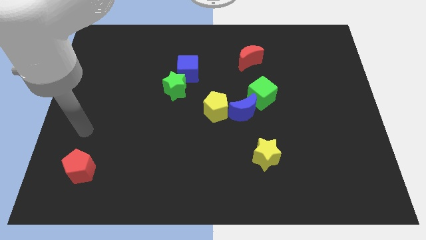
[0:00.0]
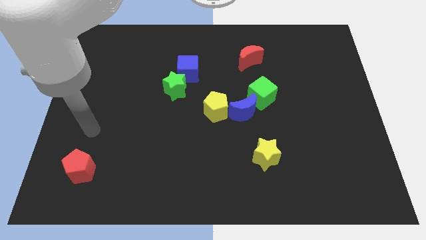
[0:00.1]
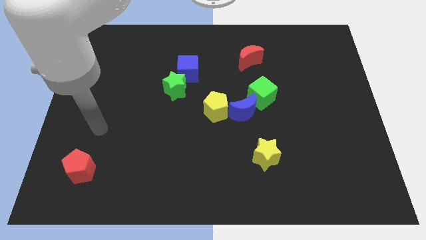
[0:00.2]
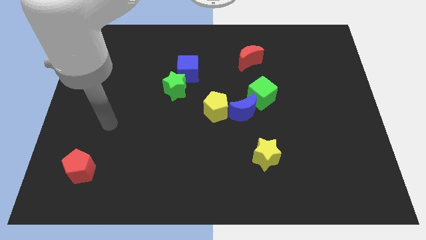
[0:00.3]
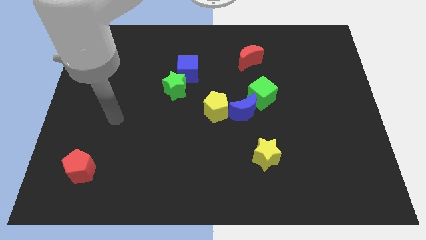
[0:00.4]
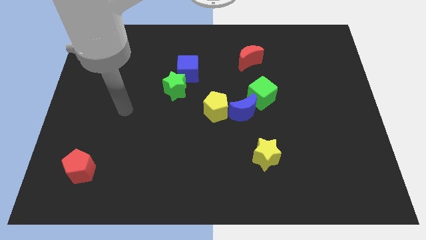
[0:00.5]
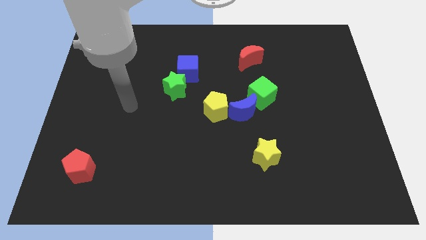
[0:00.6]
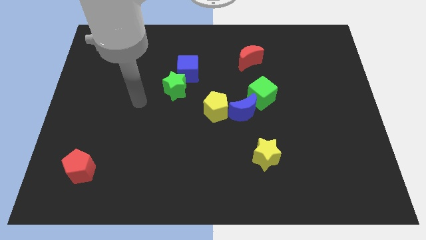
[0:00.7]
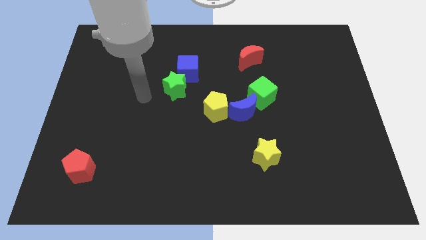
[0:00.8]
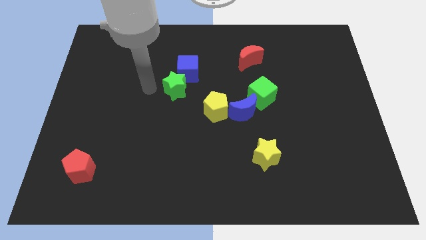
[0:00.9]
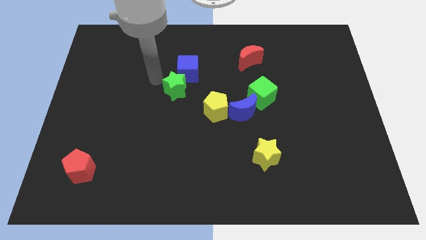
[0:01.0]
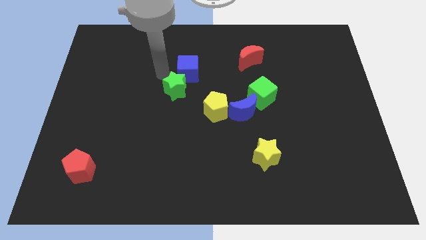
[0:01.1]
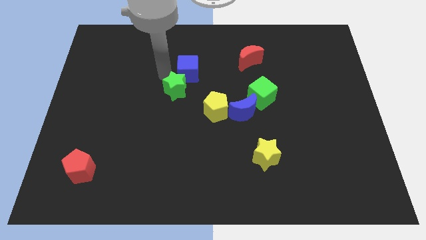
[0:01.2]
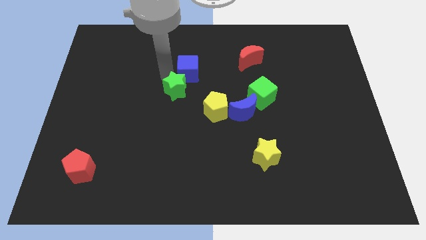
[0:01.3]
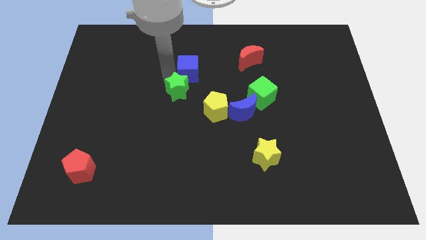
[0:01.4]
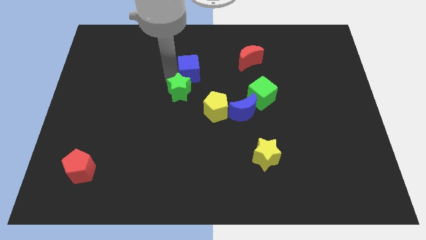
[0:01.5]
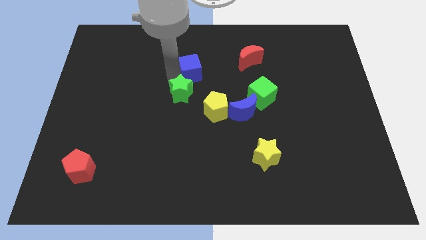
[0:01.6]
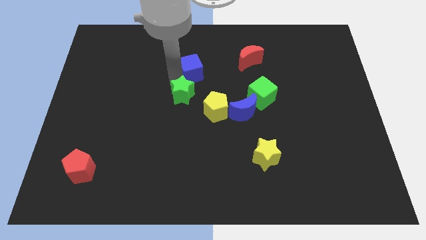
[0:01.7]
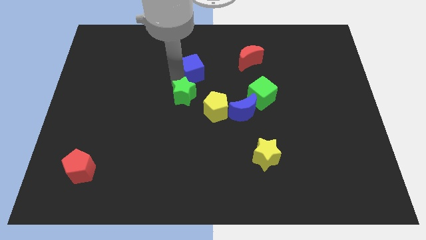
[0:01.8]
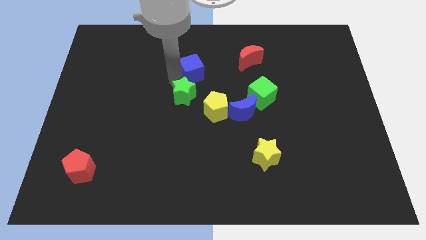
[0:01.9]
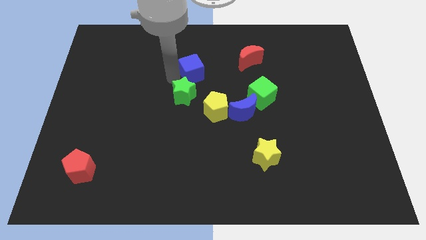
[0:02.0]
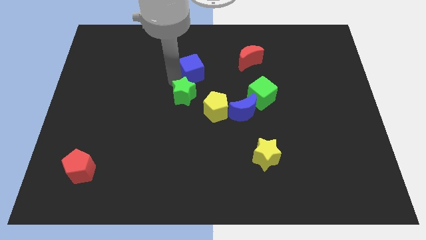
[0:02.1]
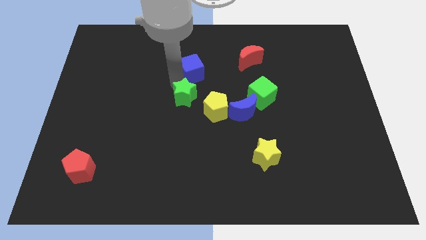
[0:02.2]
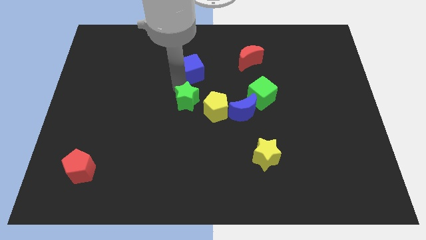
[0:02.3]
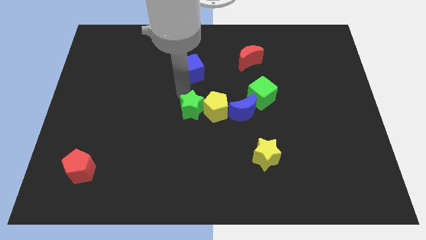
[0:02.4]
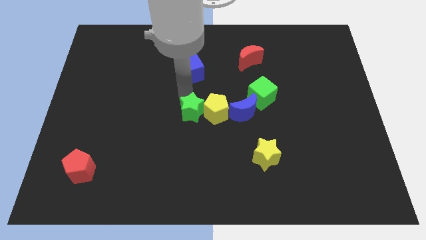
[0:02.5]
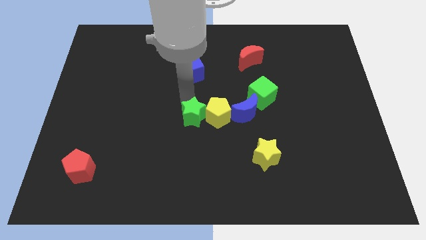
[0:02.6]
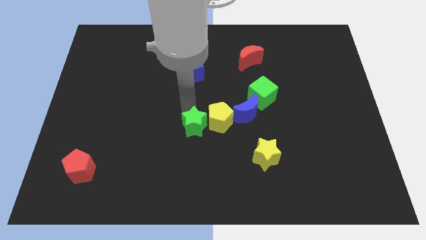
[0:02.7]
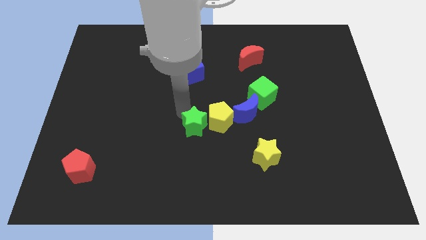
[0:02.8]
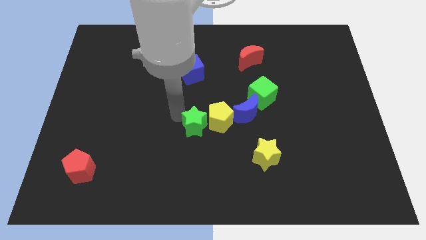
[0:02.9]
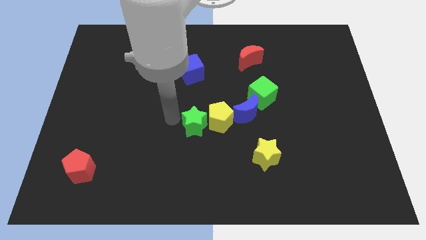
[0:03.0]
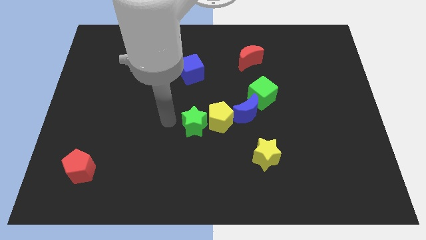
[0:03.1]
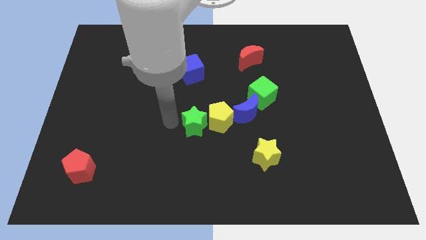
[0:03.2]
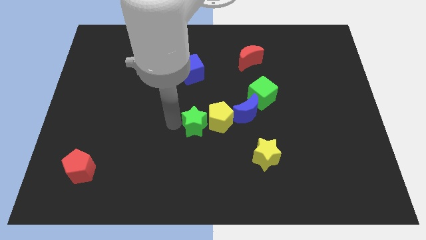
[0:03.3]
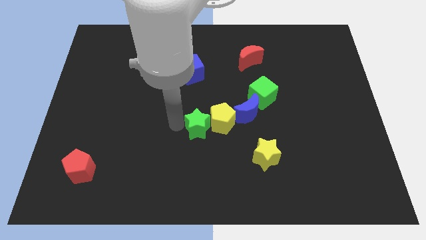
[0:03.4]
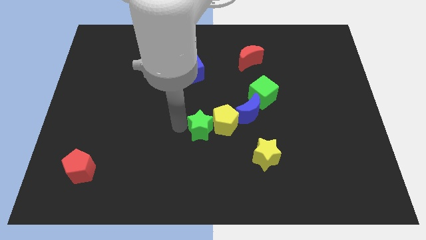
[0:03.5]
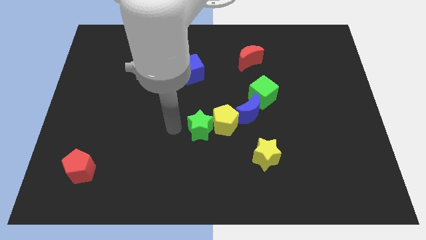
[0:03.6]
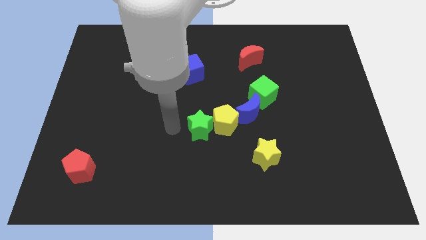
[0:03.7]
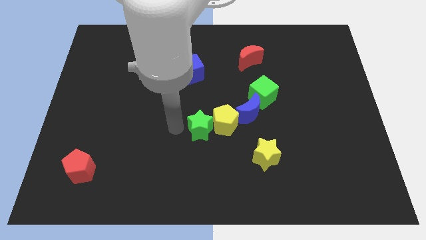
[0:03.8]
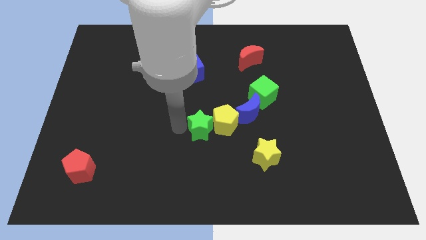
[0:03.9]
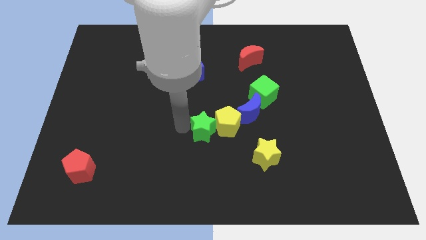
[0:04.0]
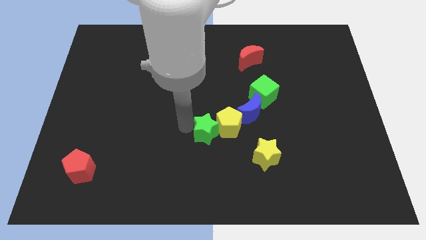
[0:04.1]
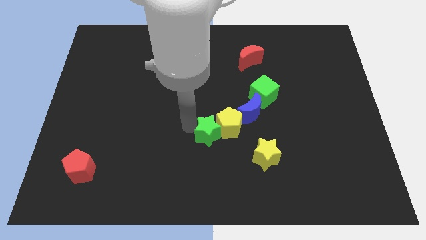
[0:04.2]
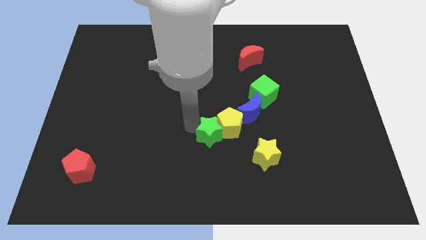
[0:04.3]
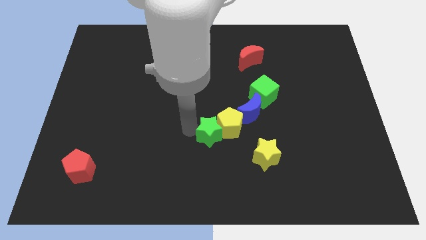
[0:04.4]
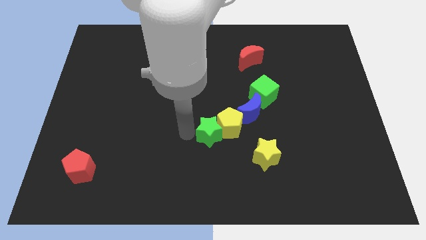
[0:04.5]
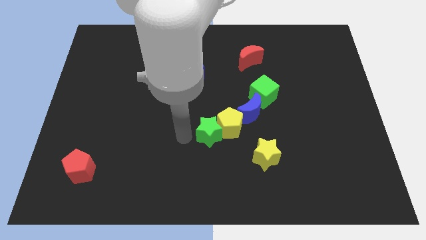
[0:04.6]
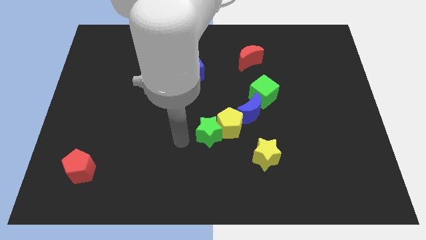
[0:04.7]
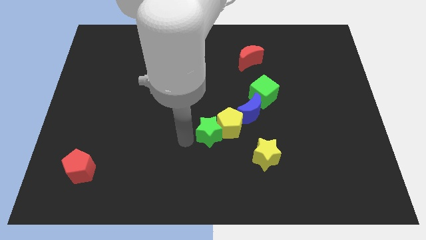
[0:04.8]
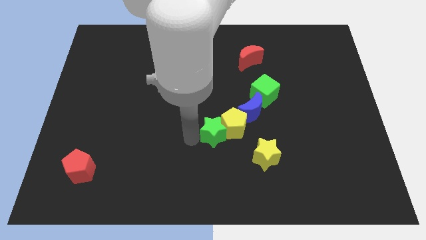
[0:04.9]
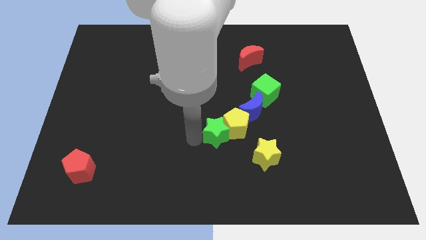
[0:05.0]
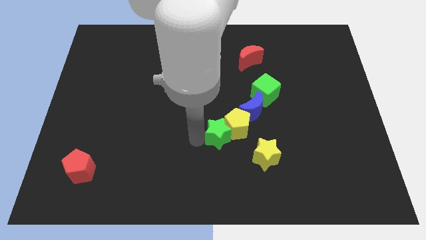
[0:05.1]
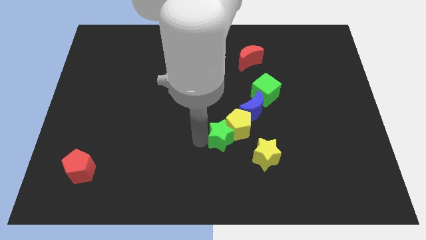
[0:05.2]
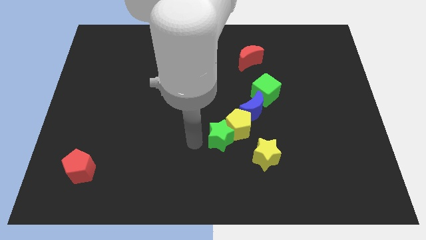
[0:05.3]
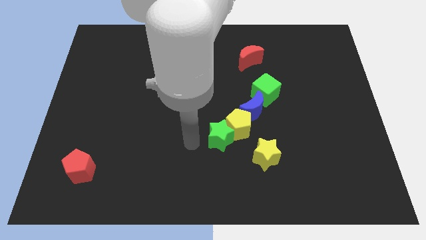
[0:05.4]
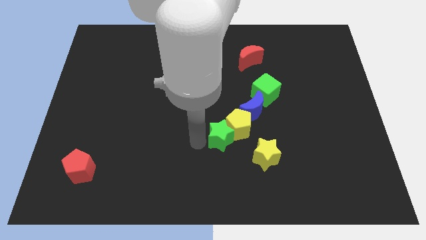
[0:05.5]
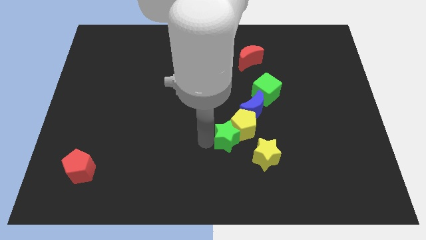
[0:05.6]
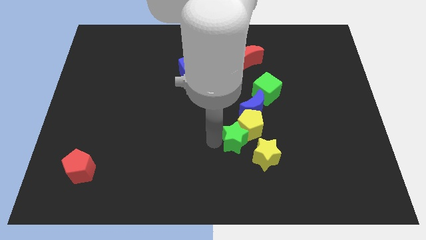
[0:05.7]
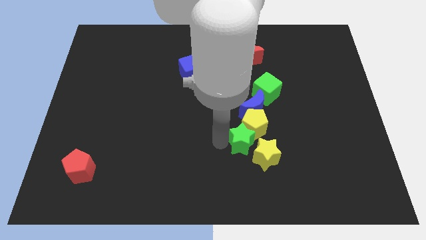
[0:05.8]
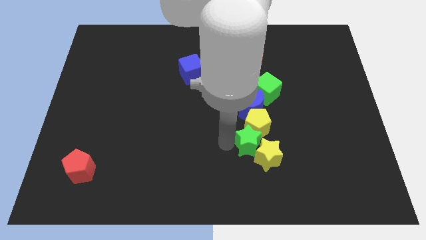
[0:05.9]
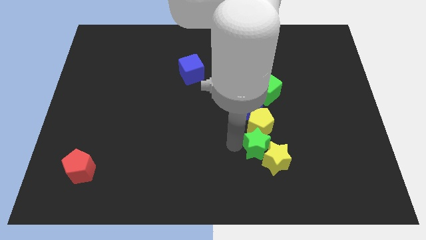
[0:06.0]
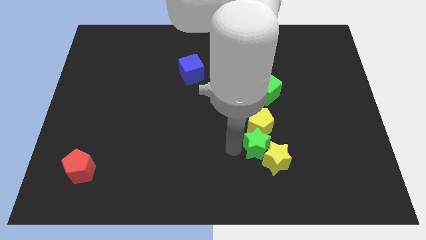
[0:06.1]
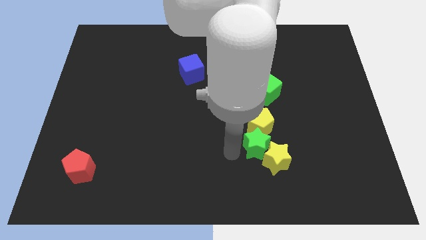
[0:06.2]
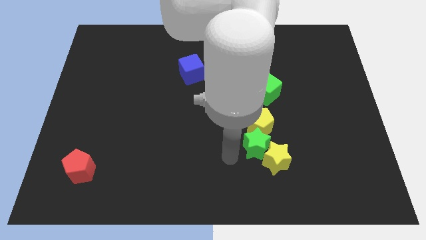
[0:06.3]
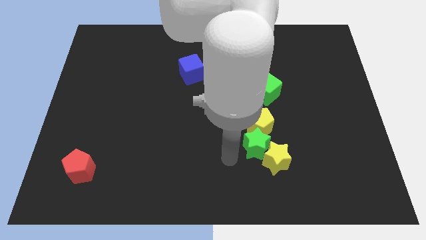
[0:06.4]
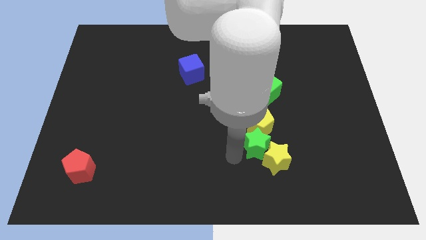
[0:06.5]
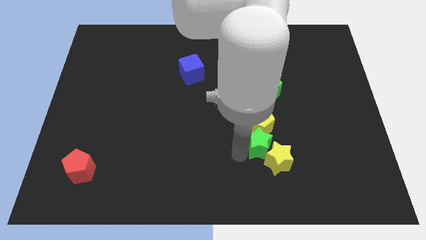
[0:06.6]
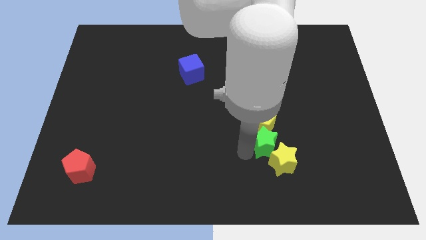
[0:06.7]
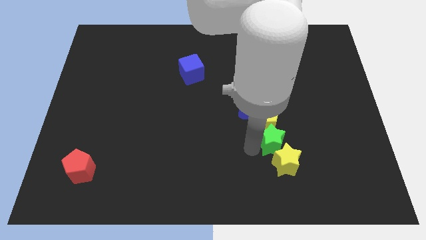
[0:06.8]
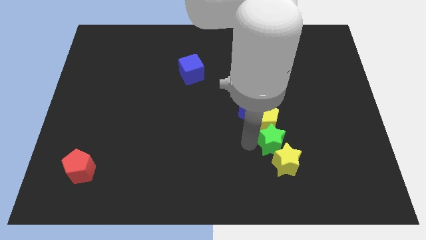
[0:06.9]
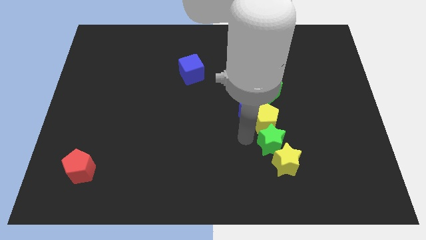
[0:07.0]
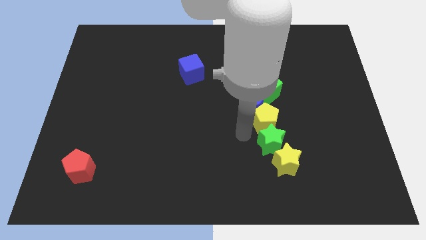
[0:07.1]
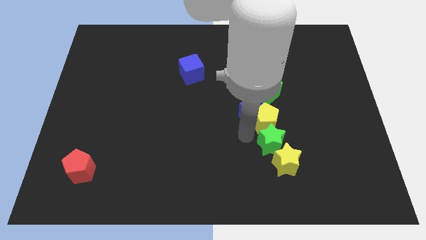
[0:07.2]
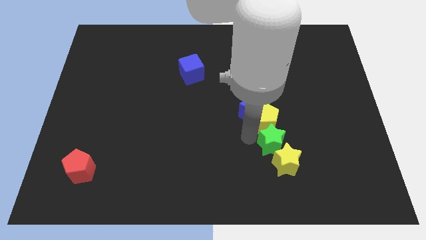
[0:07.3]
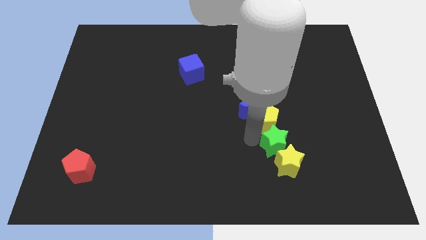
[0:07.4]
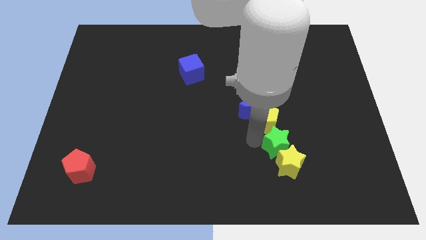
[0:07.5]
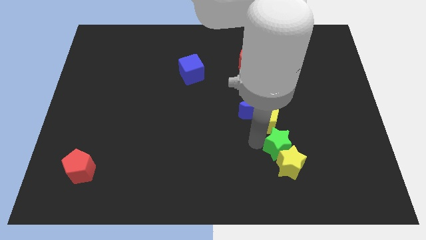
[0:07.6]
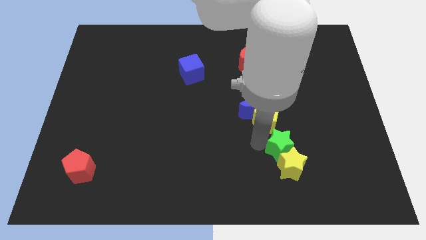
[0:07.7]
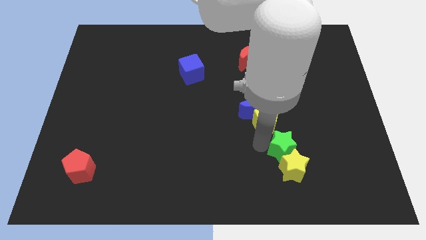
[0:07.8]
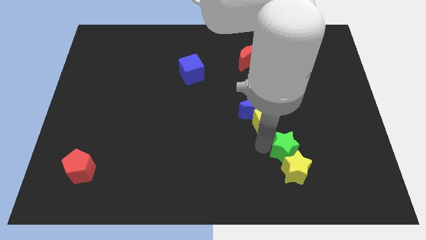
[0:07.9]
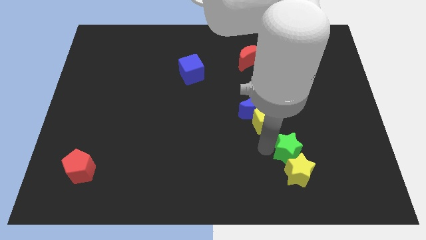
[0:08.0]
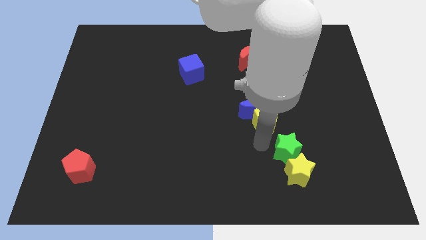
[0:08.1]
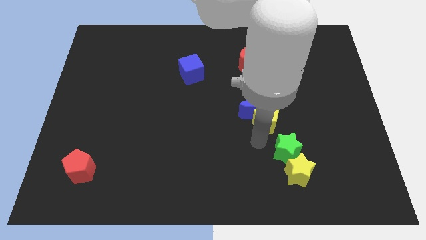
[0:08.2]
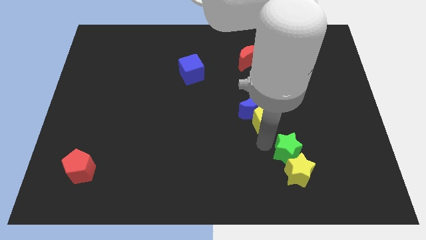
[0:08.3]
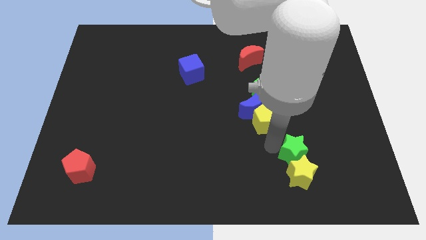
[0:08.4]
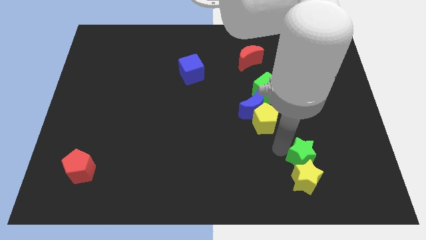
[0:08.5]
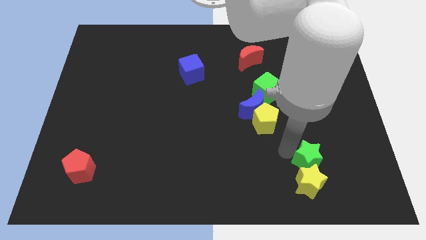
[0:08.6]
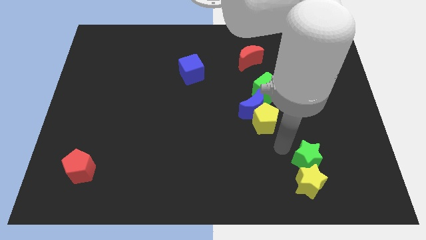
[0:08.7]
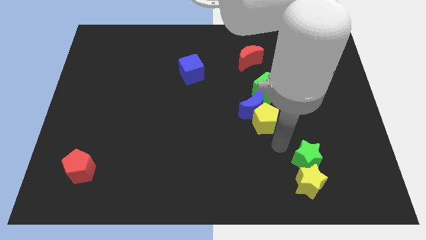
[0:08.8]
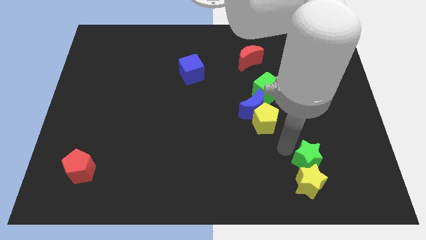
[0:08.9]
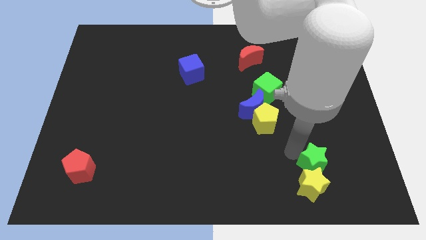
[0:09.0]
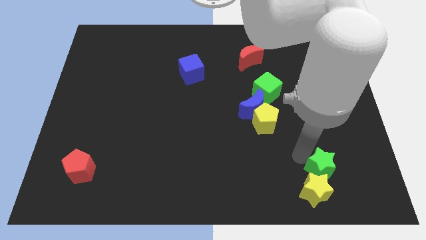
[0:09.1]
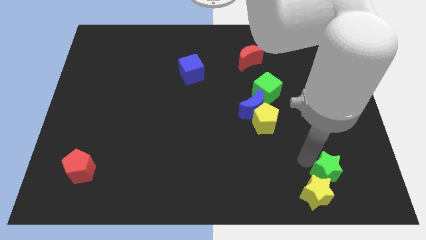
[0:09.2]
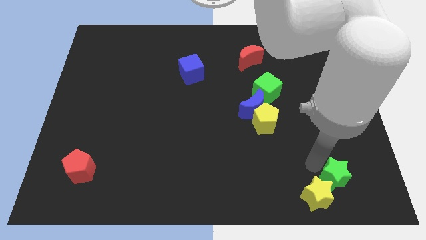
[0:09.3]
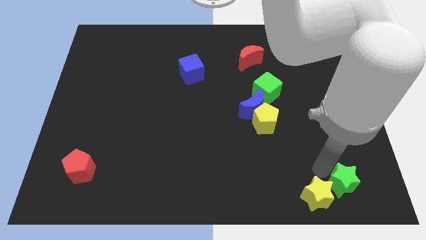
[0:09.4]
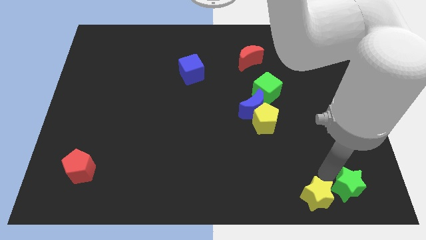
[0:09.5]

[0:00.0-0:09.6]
slide the green star to the lower right corner
